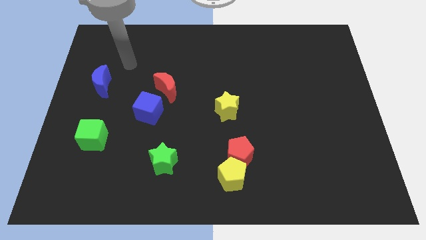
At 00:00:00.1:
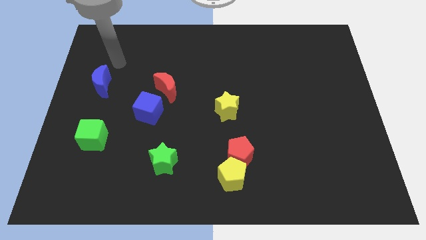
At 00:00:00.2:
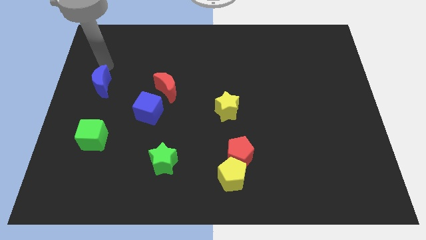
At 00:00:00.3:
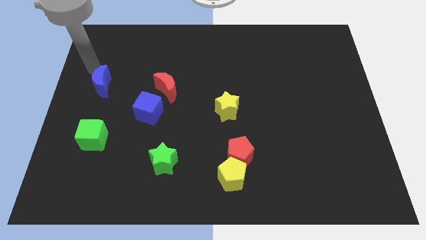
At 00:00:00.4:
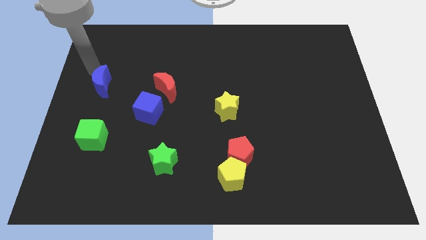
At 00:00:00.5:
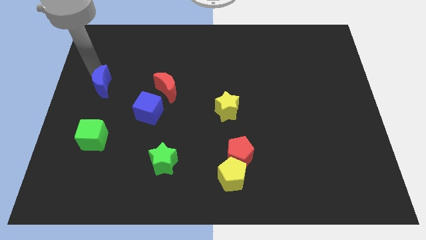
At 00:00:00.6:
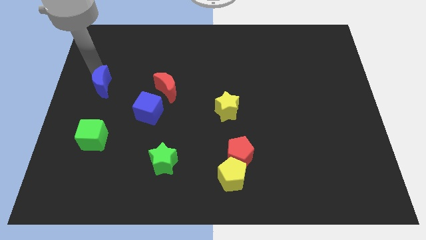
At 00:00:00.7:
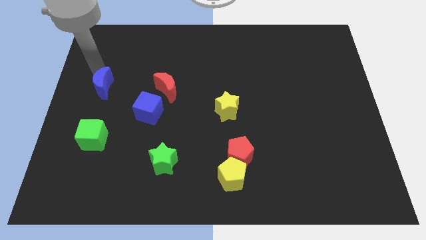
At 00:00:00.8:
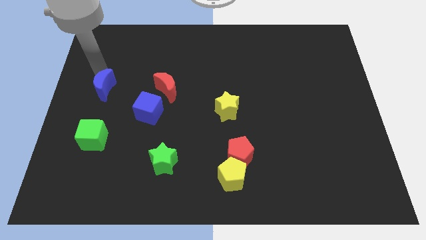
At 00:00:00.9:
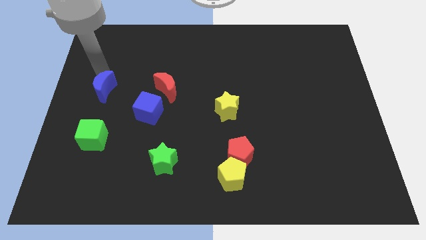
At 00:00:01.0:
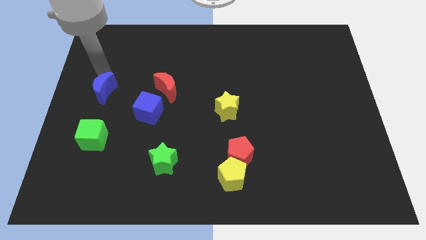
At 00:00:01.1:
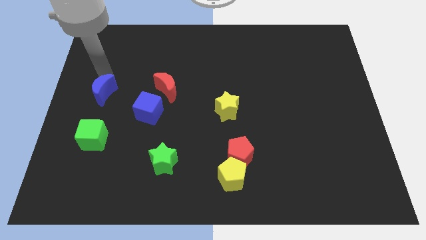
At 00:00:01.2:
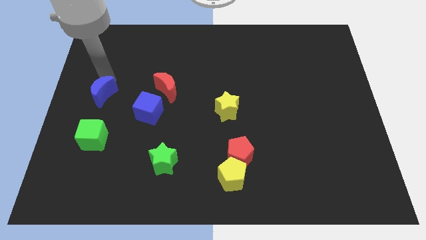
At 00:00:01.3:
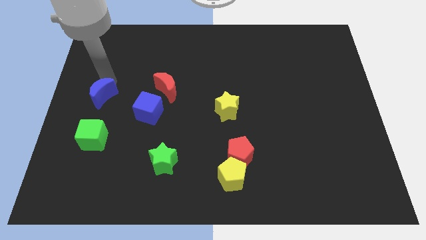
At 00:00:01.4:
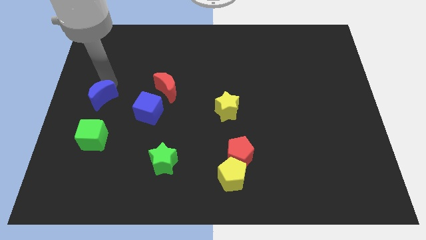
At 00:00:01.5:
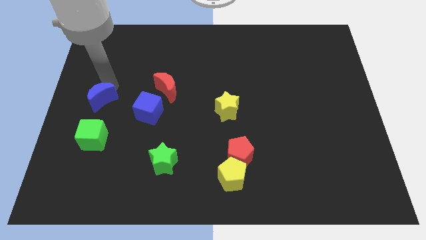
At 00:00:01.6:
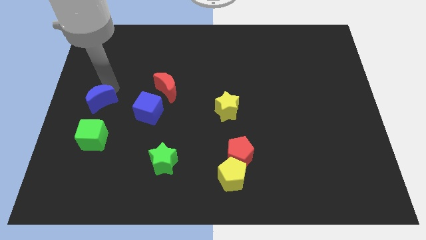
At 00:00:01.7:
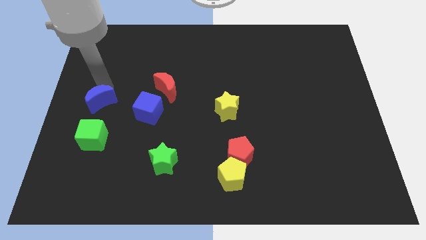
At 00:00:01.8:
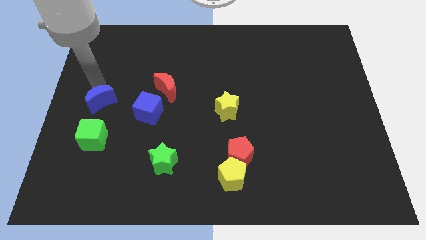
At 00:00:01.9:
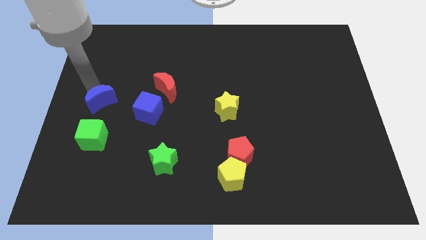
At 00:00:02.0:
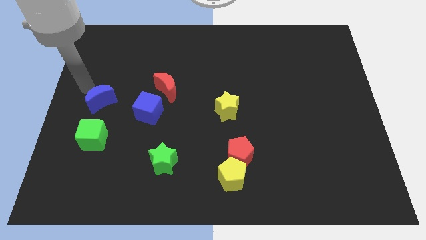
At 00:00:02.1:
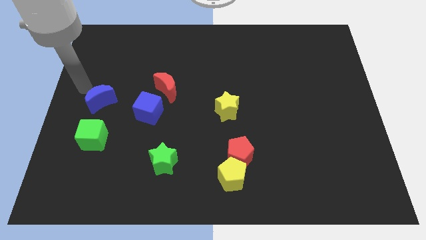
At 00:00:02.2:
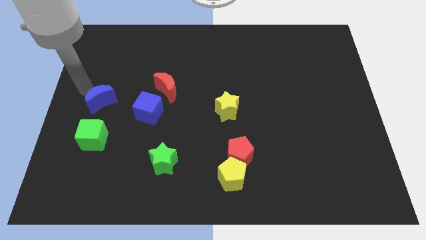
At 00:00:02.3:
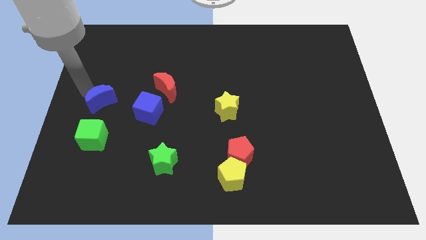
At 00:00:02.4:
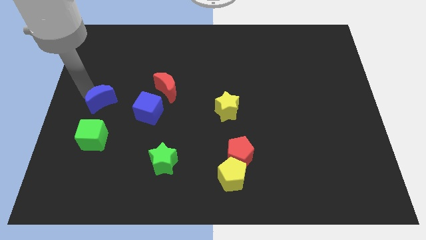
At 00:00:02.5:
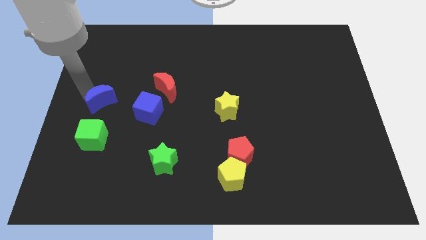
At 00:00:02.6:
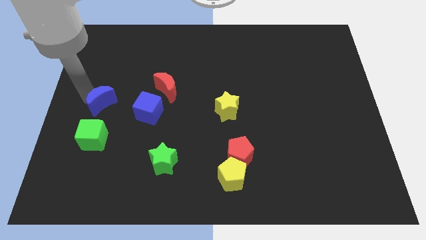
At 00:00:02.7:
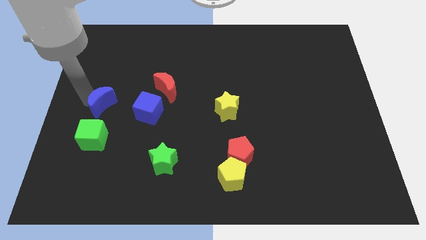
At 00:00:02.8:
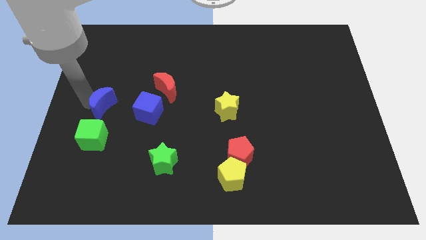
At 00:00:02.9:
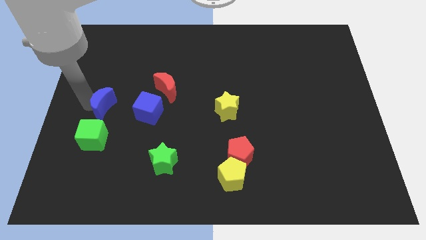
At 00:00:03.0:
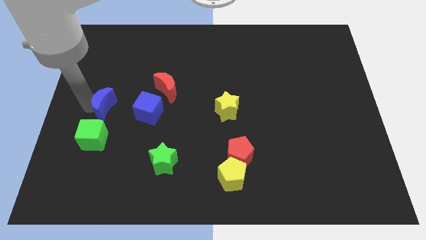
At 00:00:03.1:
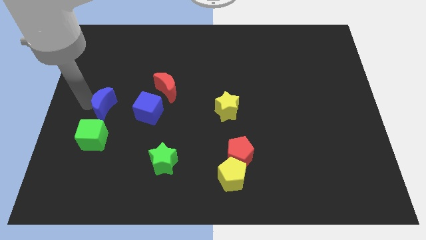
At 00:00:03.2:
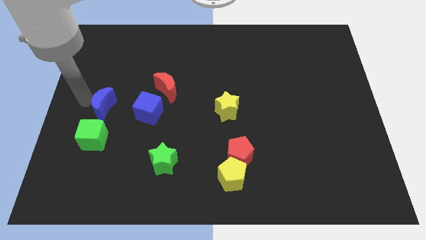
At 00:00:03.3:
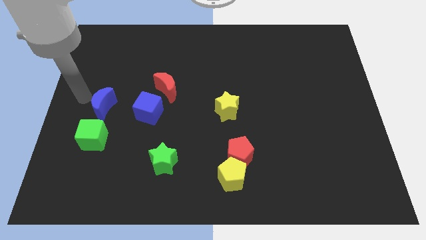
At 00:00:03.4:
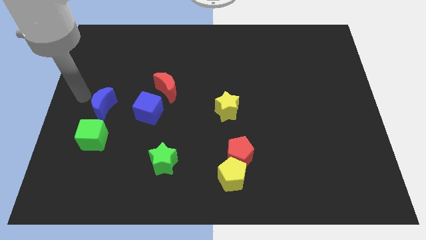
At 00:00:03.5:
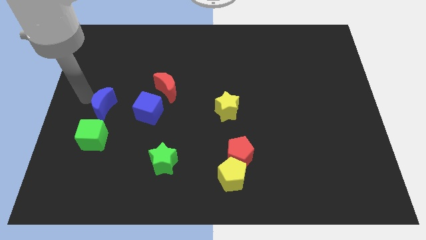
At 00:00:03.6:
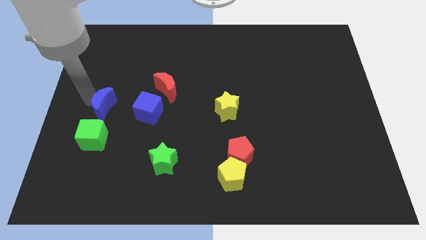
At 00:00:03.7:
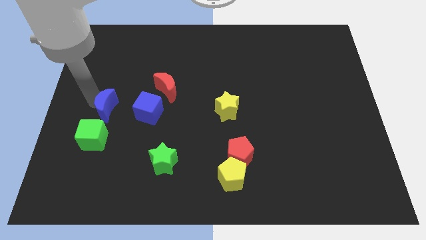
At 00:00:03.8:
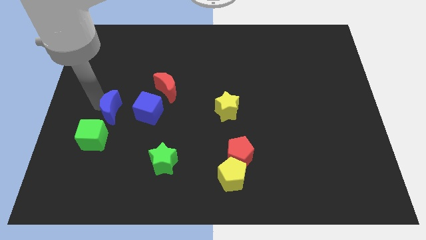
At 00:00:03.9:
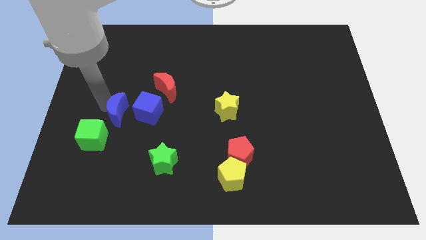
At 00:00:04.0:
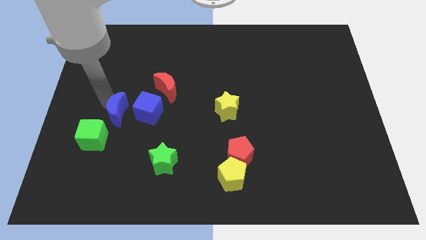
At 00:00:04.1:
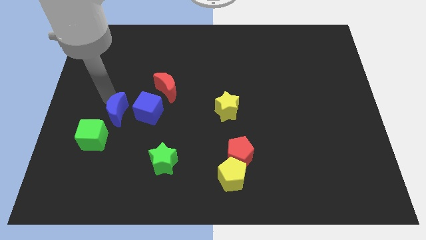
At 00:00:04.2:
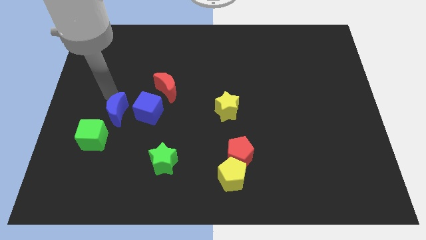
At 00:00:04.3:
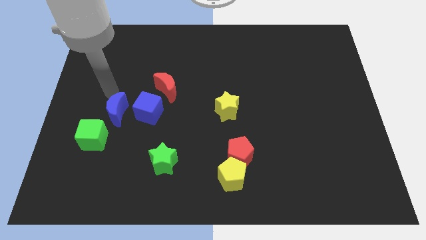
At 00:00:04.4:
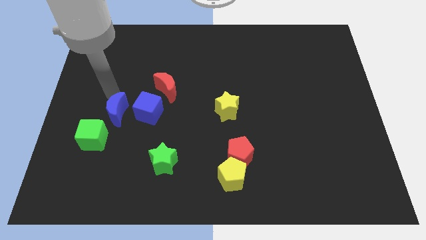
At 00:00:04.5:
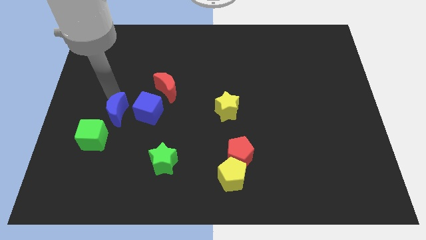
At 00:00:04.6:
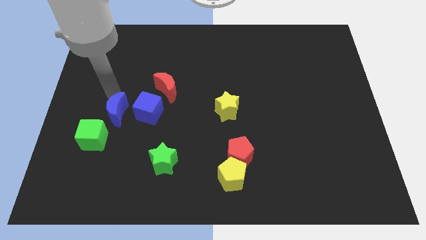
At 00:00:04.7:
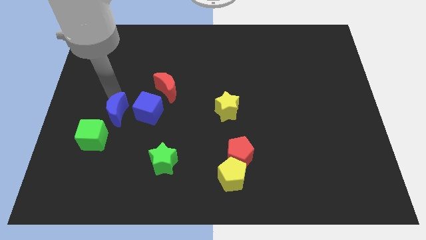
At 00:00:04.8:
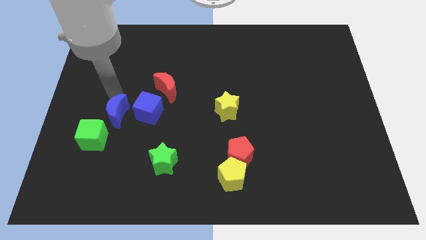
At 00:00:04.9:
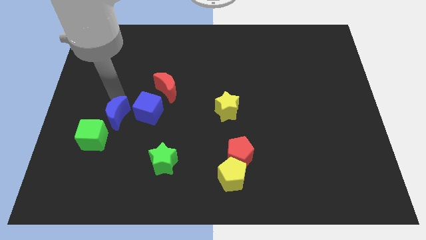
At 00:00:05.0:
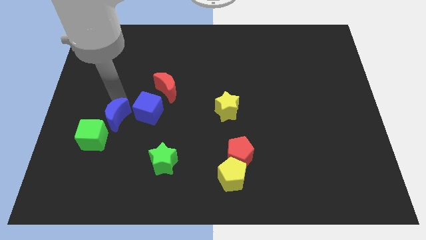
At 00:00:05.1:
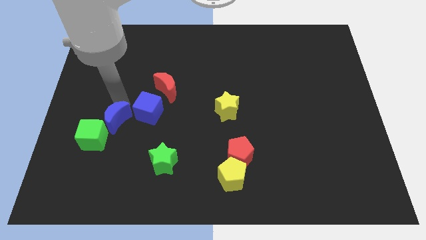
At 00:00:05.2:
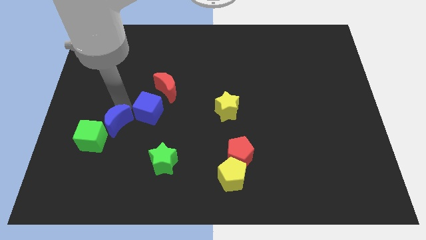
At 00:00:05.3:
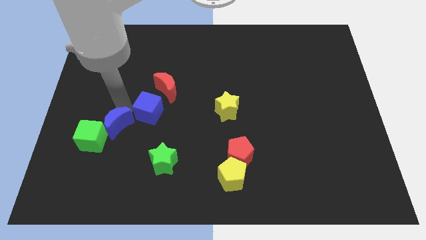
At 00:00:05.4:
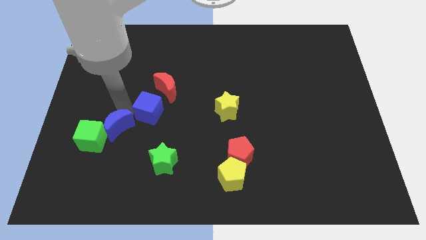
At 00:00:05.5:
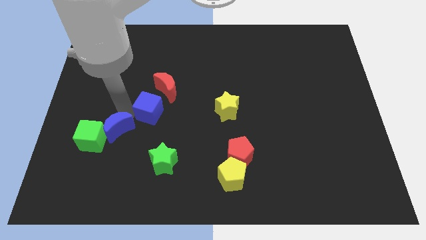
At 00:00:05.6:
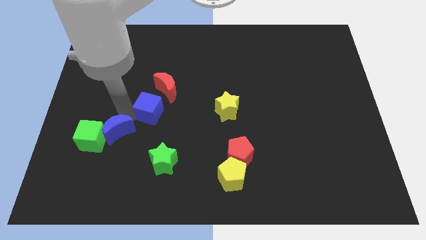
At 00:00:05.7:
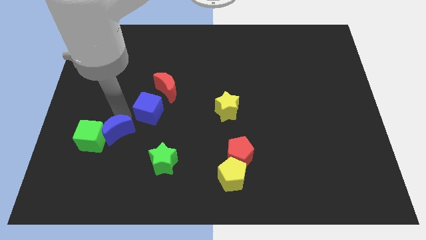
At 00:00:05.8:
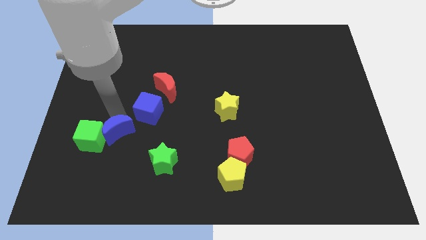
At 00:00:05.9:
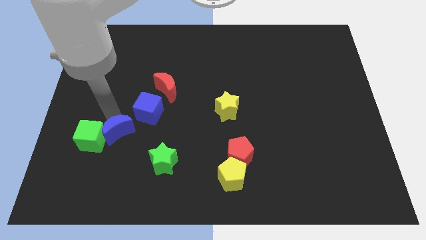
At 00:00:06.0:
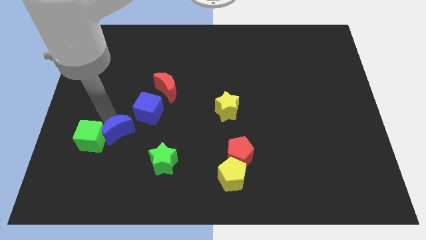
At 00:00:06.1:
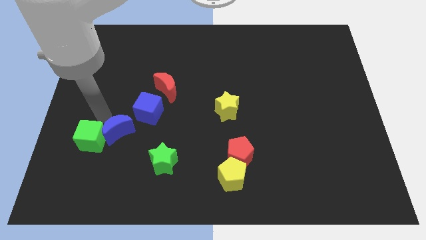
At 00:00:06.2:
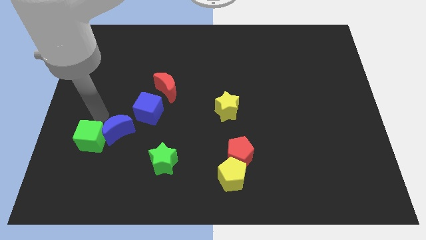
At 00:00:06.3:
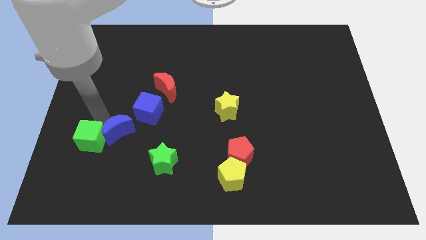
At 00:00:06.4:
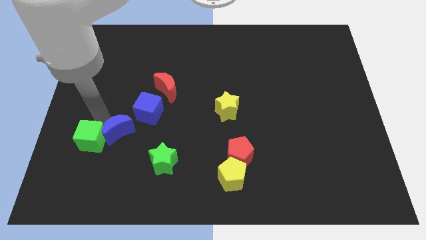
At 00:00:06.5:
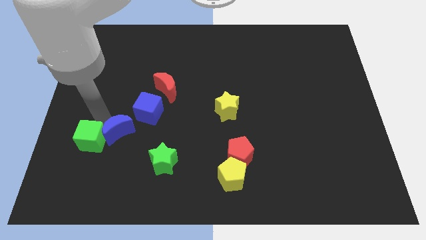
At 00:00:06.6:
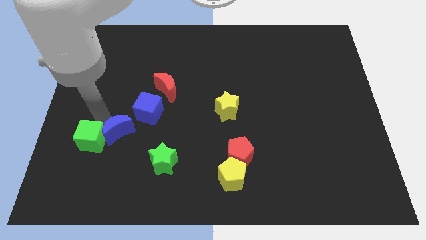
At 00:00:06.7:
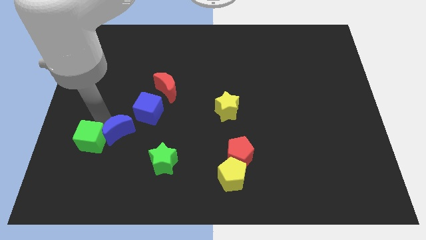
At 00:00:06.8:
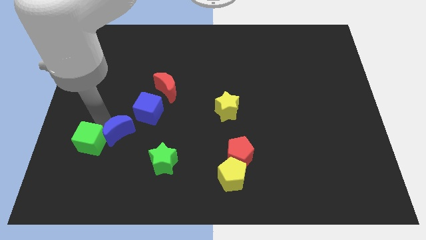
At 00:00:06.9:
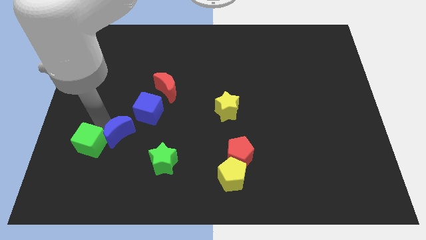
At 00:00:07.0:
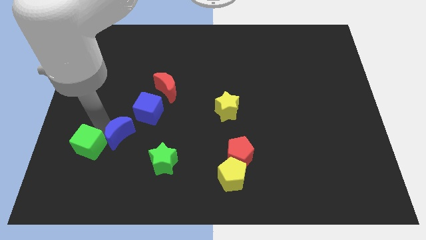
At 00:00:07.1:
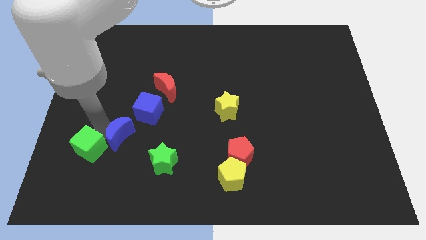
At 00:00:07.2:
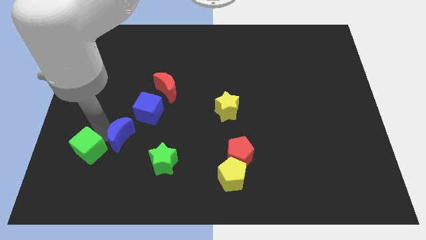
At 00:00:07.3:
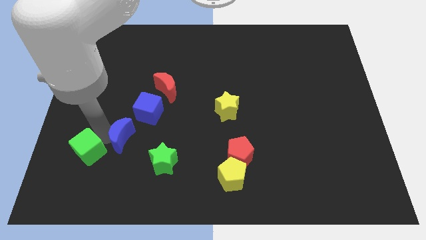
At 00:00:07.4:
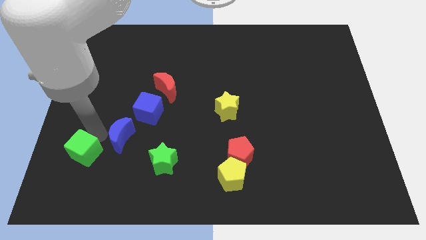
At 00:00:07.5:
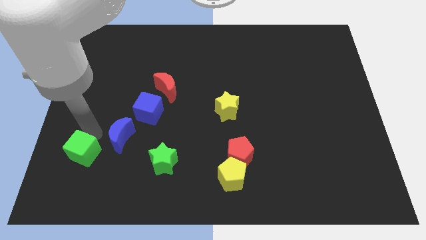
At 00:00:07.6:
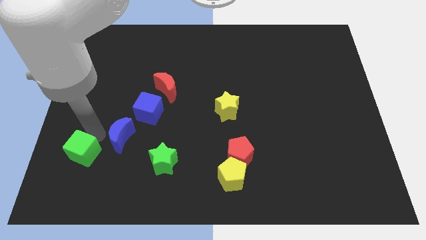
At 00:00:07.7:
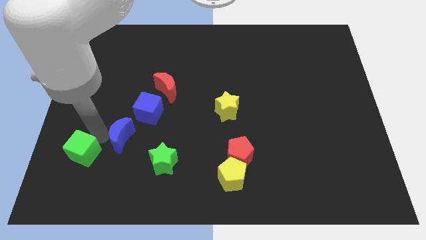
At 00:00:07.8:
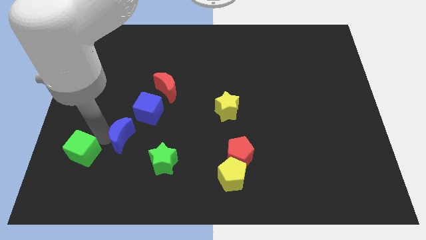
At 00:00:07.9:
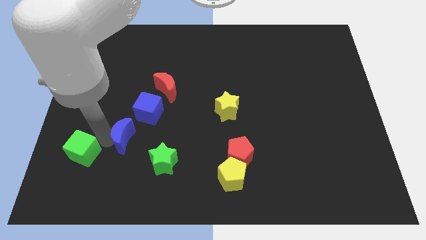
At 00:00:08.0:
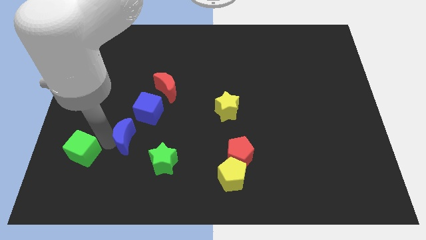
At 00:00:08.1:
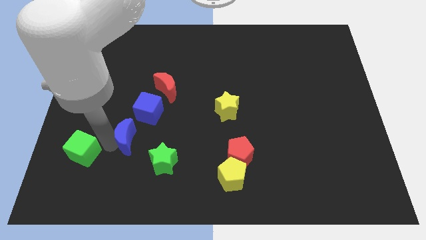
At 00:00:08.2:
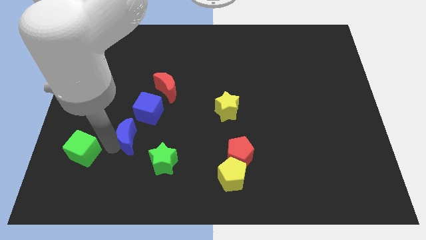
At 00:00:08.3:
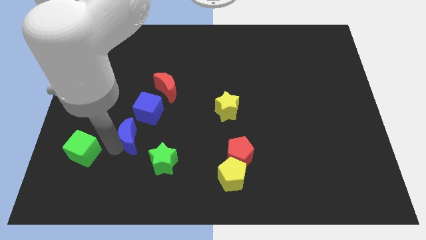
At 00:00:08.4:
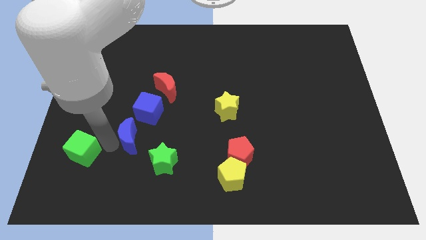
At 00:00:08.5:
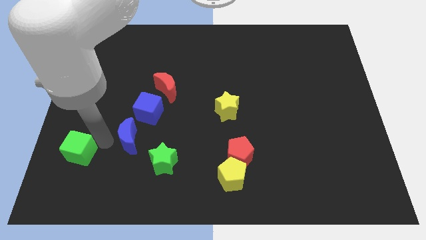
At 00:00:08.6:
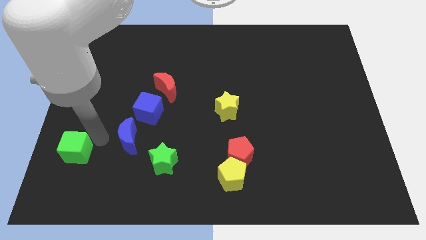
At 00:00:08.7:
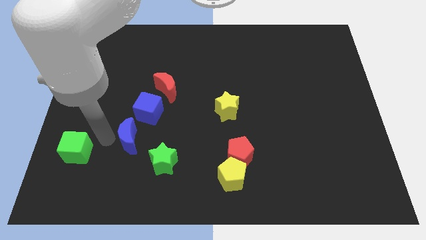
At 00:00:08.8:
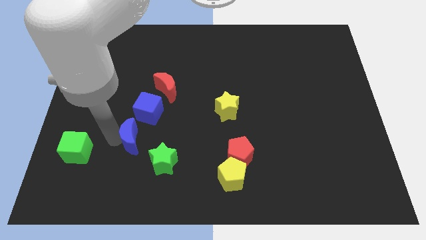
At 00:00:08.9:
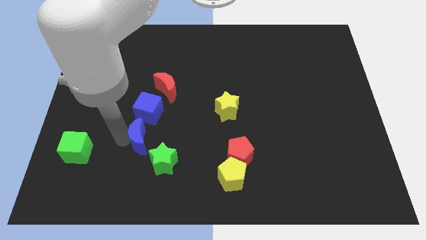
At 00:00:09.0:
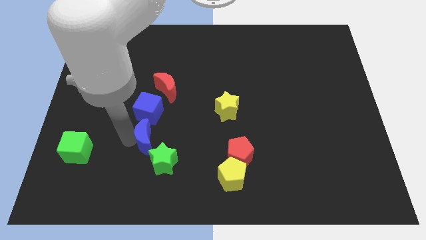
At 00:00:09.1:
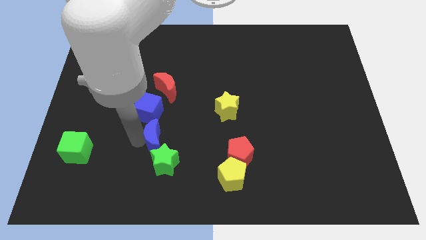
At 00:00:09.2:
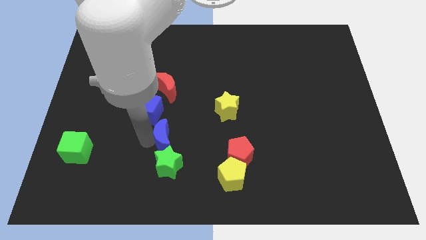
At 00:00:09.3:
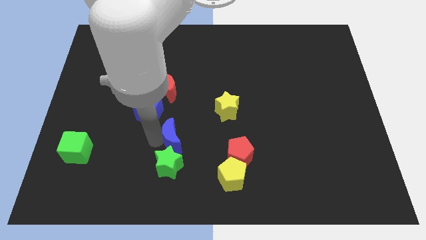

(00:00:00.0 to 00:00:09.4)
slide the blue moon to the top right of the green star
